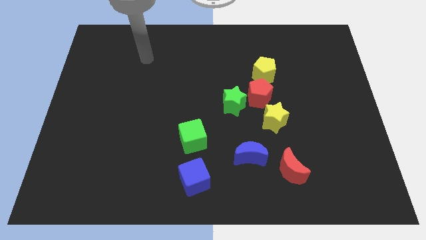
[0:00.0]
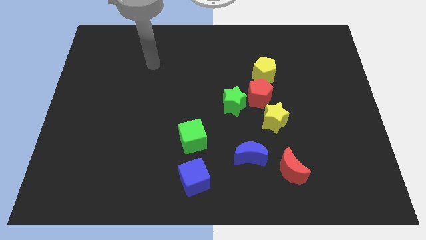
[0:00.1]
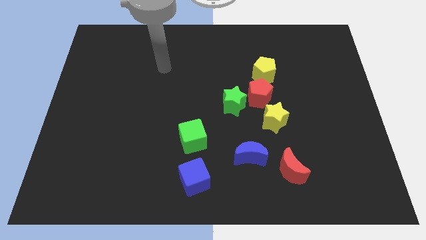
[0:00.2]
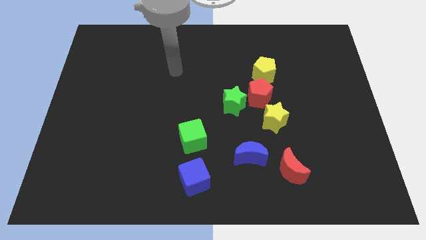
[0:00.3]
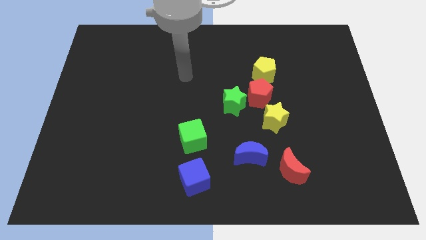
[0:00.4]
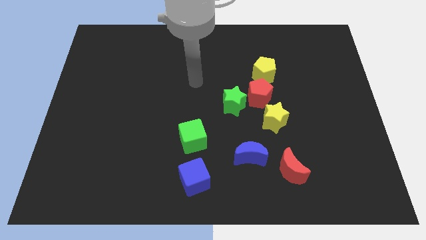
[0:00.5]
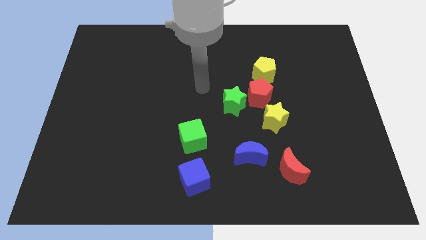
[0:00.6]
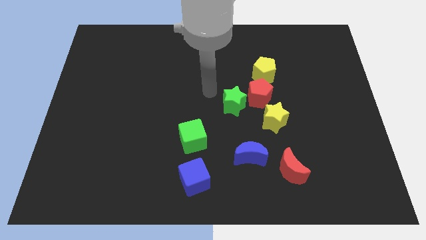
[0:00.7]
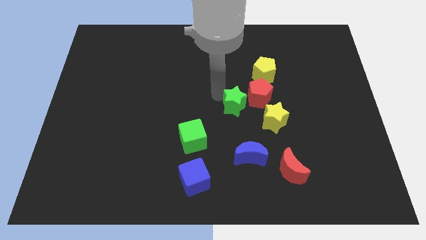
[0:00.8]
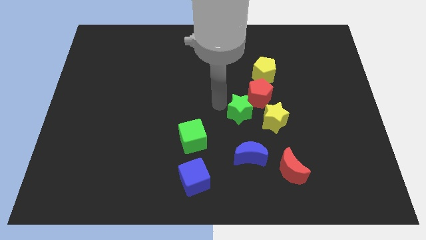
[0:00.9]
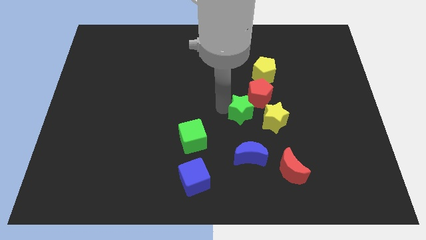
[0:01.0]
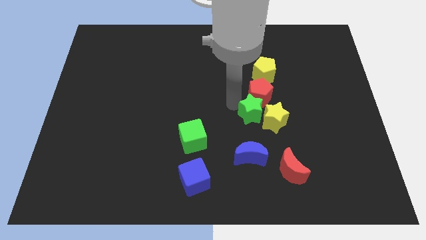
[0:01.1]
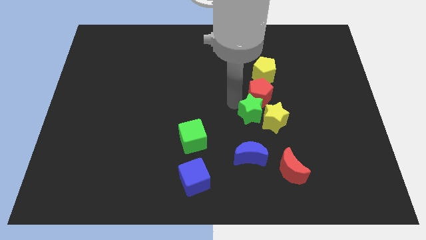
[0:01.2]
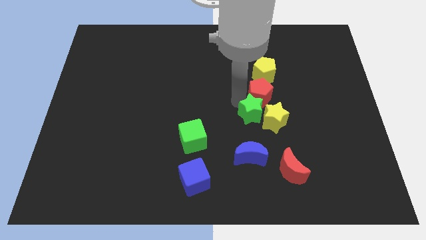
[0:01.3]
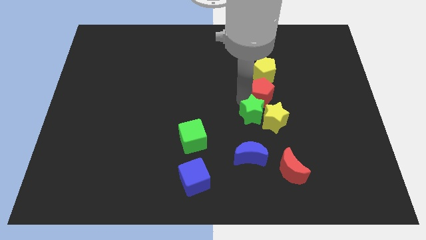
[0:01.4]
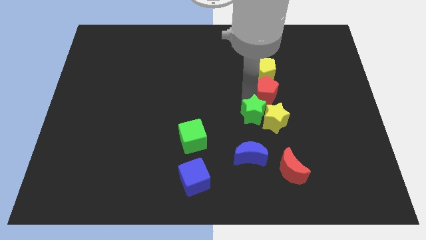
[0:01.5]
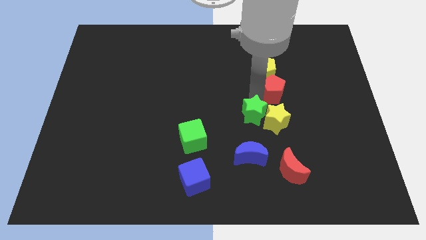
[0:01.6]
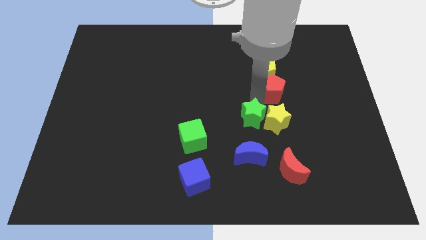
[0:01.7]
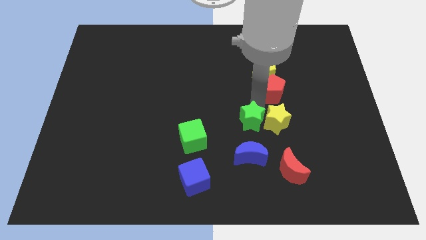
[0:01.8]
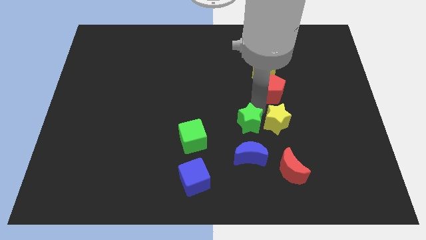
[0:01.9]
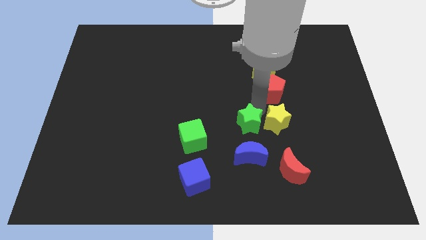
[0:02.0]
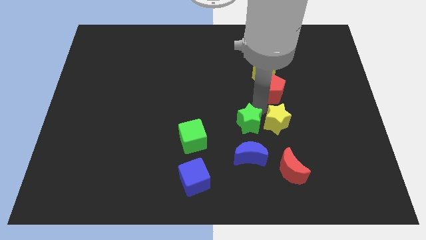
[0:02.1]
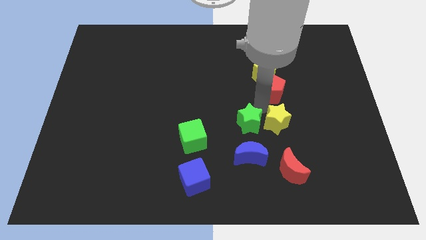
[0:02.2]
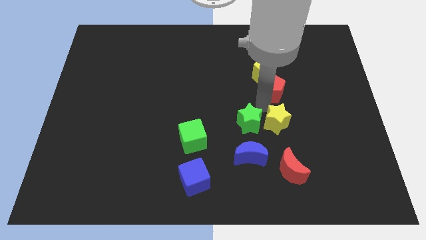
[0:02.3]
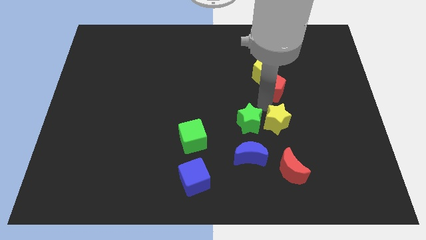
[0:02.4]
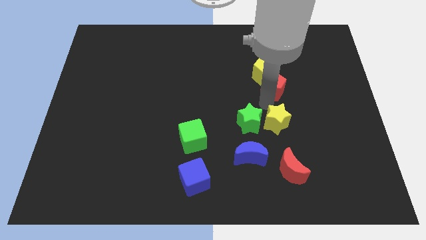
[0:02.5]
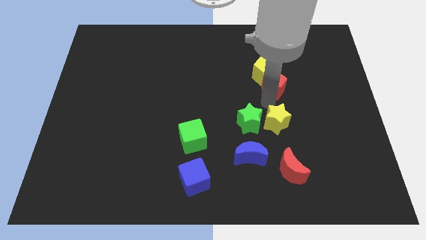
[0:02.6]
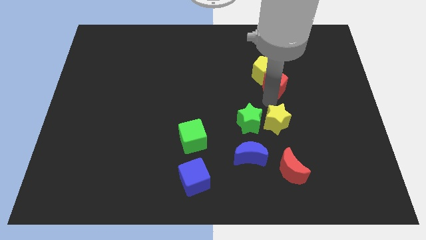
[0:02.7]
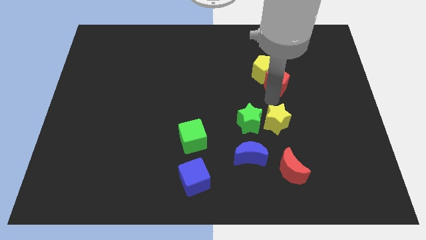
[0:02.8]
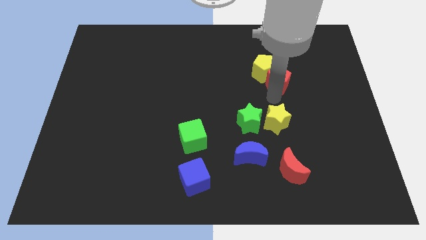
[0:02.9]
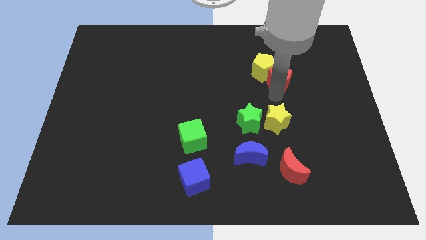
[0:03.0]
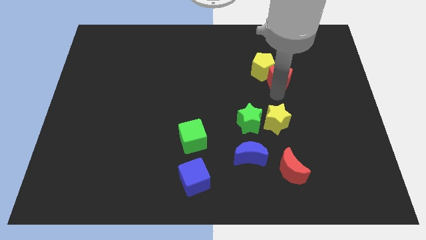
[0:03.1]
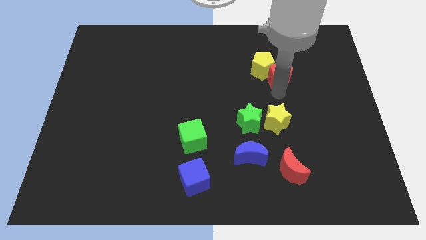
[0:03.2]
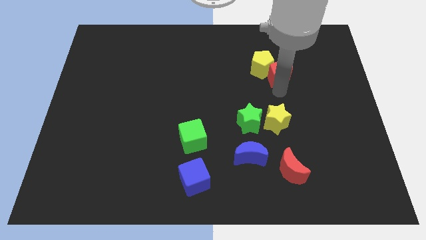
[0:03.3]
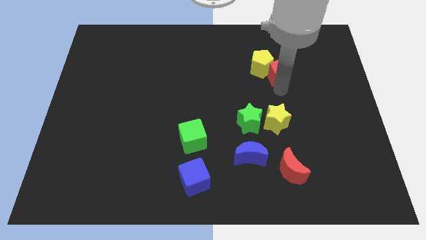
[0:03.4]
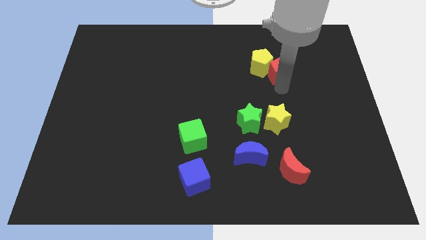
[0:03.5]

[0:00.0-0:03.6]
move the red pentagon away from the green star, yellow pentagon, and yellow star

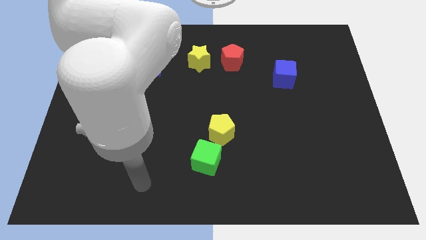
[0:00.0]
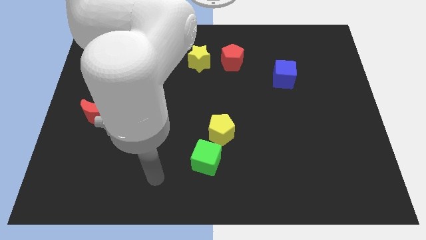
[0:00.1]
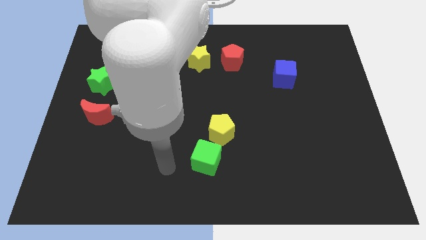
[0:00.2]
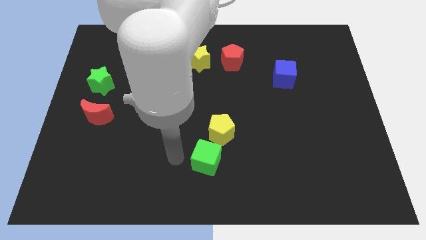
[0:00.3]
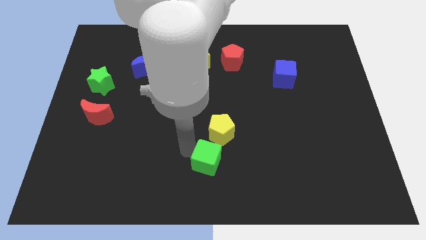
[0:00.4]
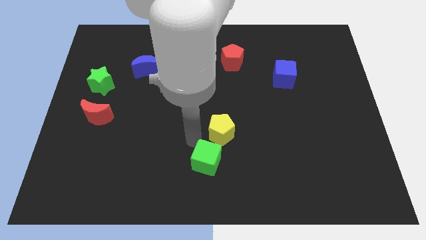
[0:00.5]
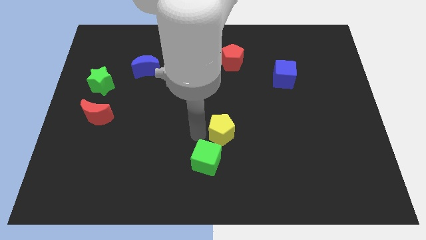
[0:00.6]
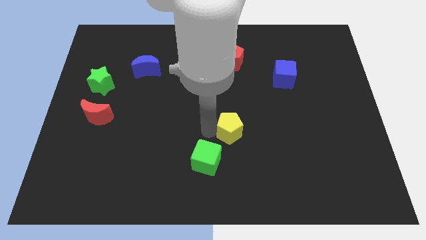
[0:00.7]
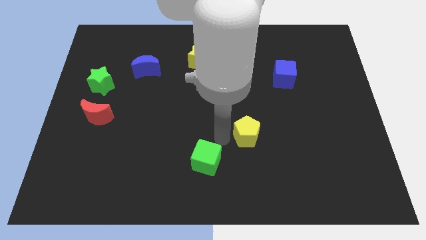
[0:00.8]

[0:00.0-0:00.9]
move the green cube away from the yellow pentagon

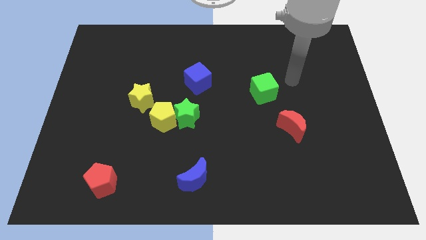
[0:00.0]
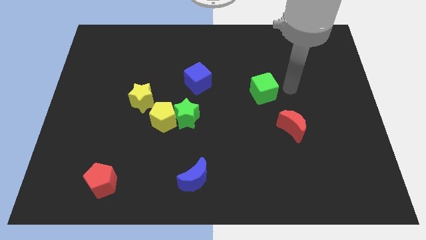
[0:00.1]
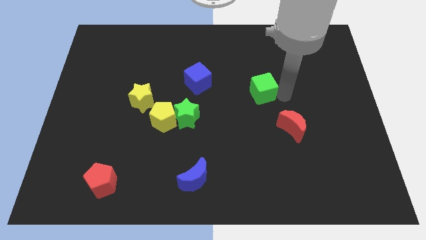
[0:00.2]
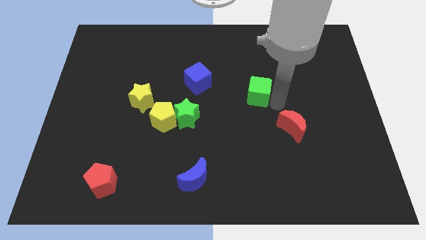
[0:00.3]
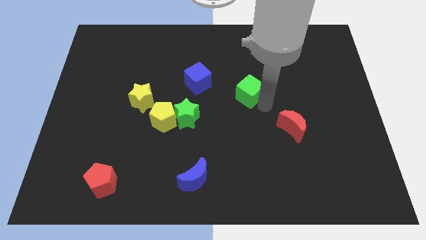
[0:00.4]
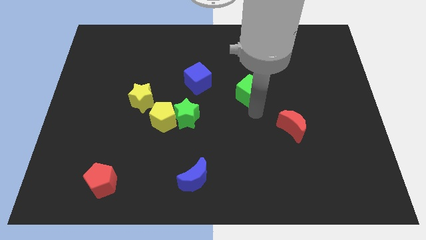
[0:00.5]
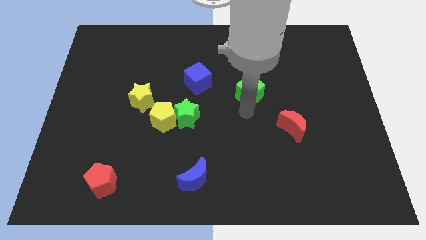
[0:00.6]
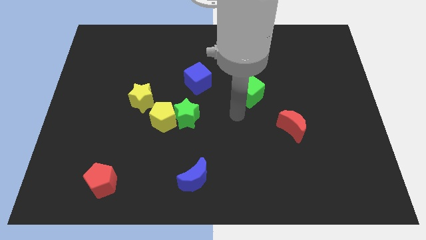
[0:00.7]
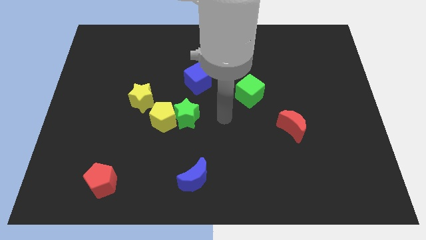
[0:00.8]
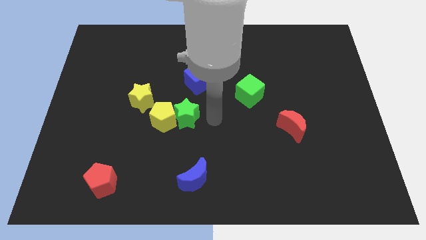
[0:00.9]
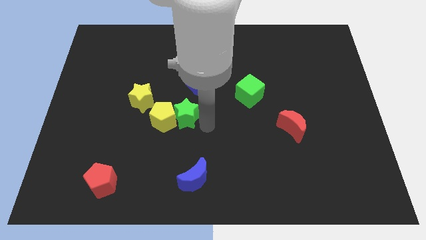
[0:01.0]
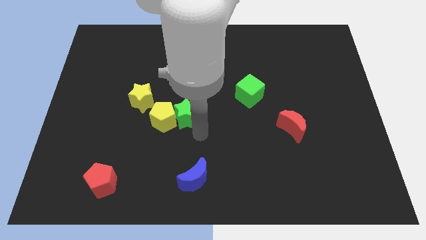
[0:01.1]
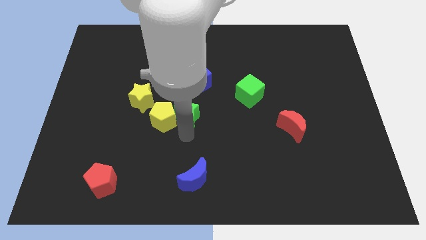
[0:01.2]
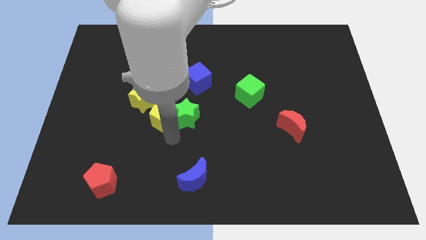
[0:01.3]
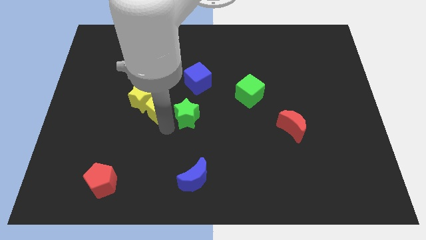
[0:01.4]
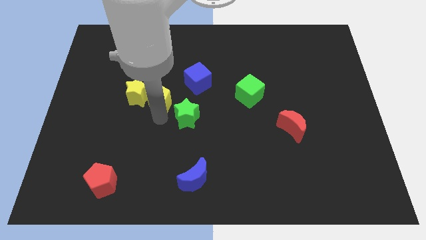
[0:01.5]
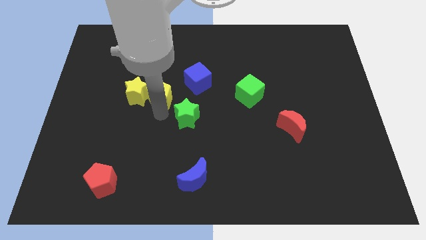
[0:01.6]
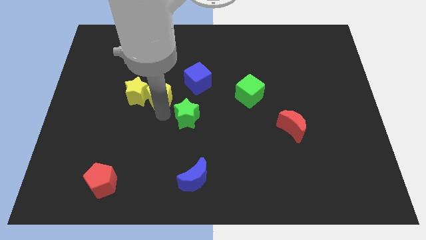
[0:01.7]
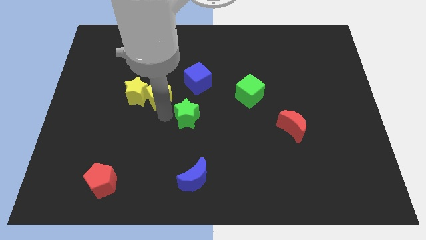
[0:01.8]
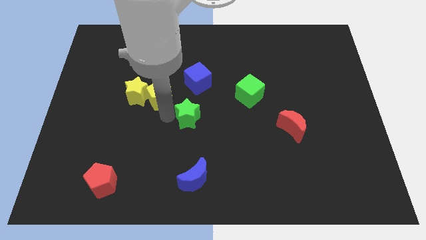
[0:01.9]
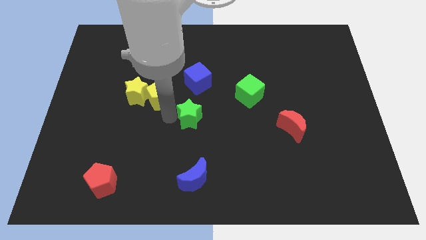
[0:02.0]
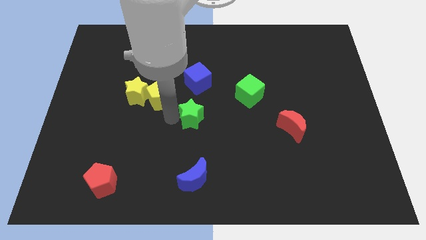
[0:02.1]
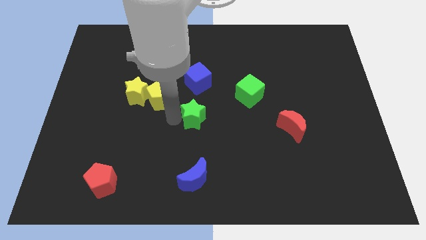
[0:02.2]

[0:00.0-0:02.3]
pull the green star apart from the yellow pentagon

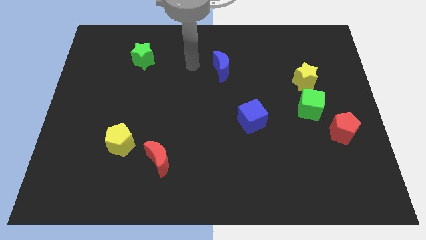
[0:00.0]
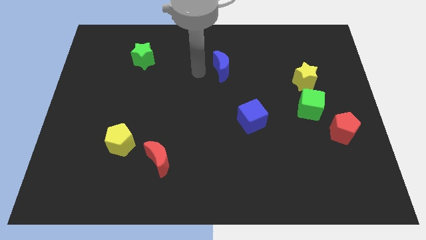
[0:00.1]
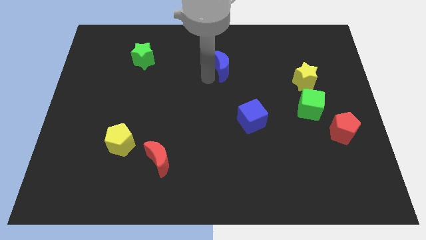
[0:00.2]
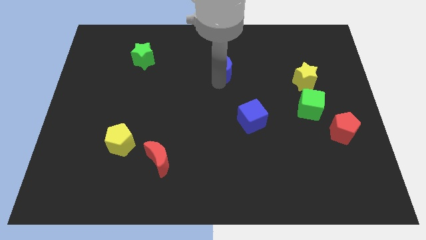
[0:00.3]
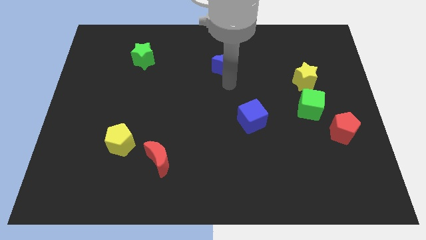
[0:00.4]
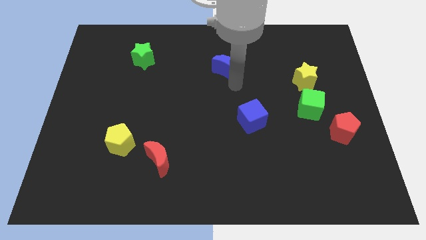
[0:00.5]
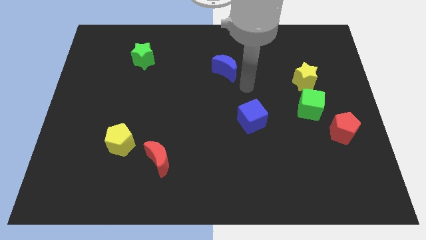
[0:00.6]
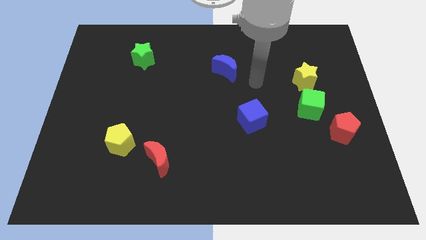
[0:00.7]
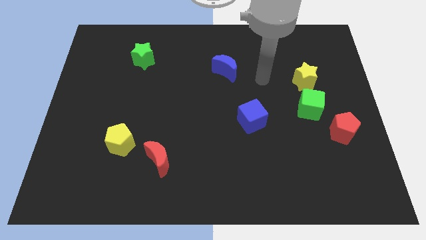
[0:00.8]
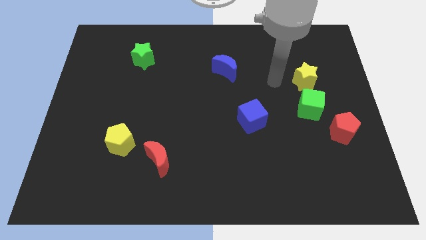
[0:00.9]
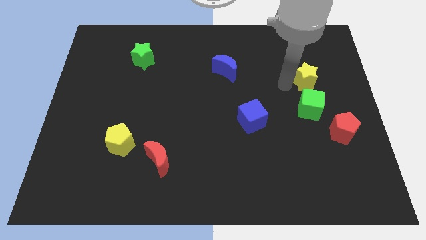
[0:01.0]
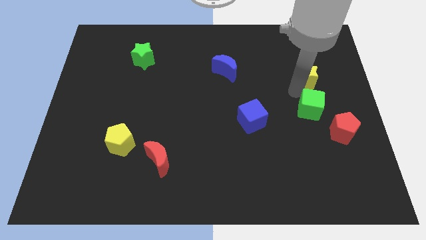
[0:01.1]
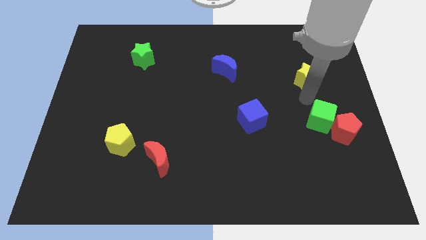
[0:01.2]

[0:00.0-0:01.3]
pull the yellow star apart from the green cube

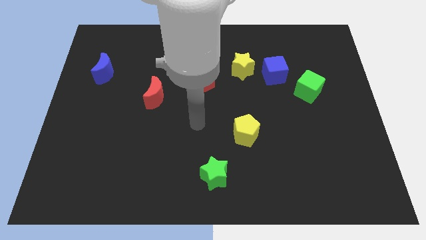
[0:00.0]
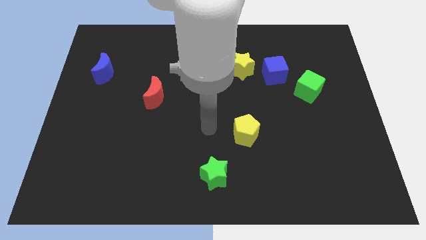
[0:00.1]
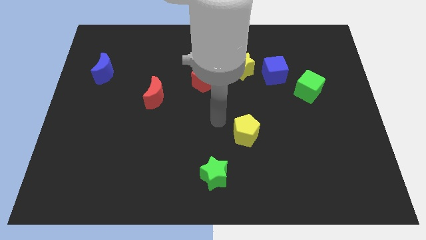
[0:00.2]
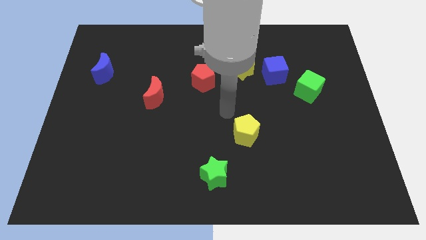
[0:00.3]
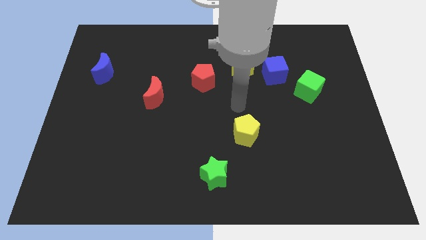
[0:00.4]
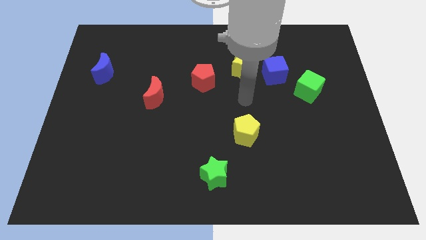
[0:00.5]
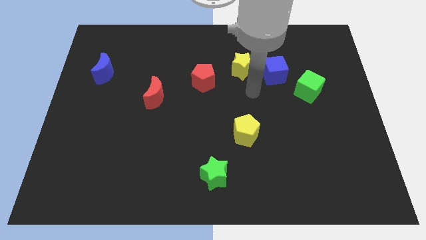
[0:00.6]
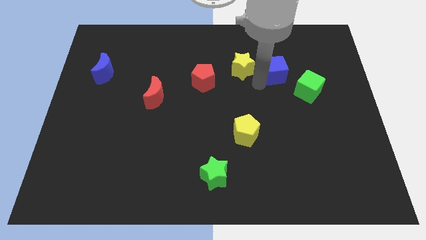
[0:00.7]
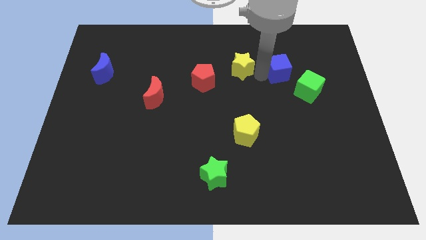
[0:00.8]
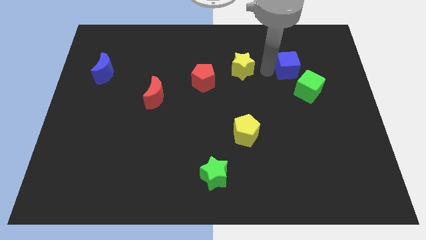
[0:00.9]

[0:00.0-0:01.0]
separate the yellow star from the blue cube

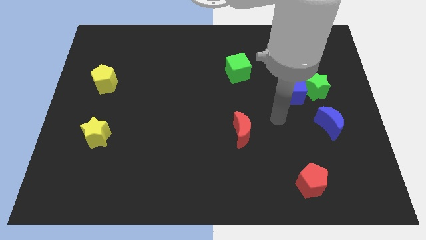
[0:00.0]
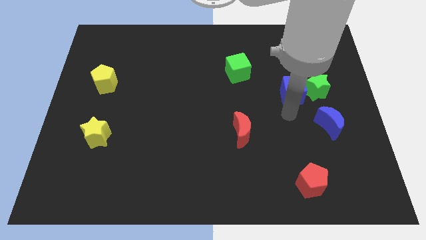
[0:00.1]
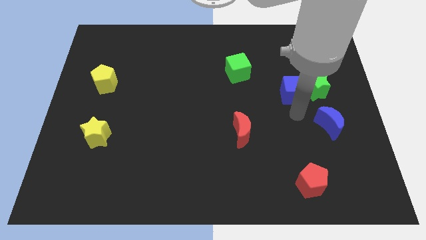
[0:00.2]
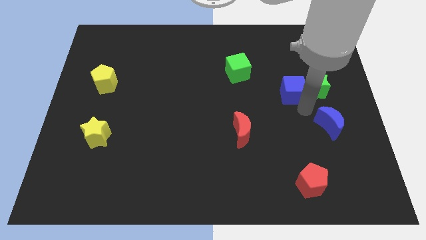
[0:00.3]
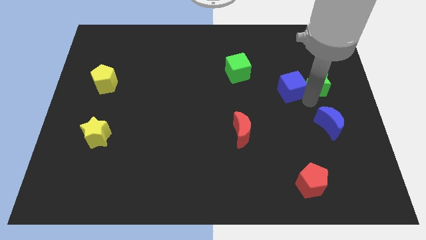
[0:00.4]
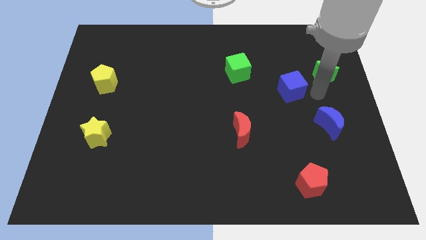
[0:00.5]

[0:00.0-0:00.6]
pull the blue cube apart from the green star
